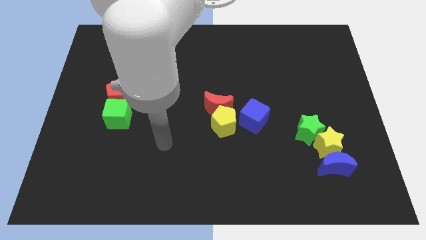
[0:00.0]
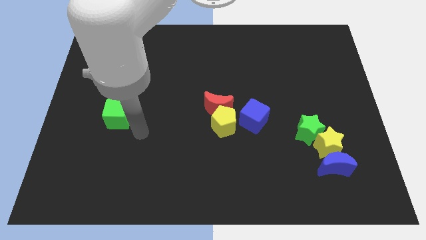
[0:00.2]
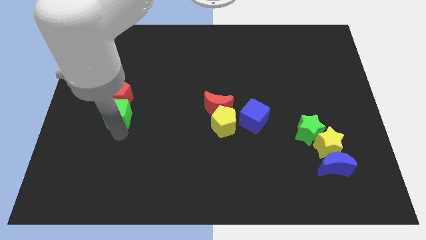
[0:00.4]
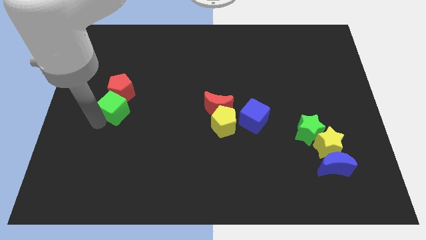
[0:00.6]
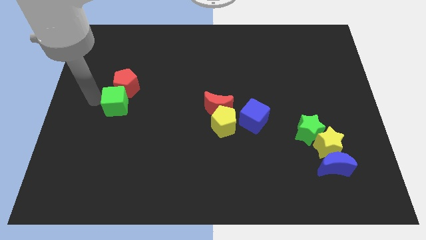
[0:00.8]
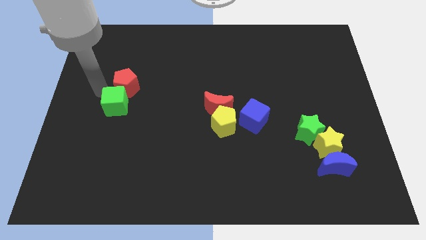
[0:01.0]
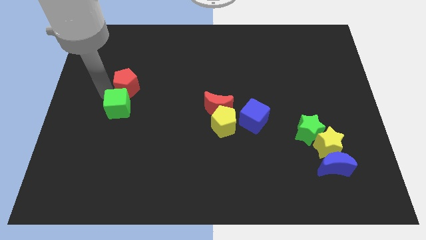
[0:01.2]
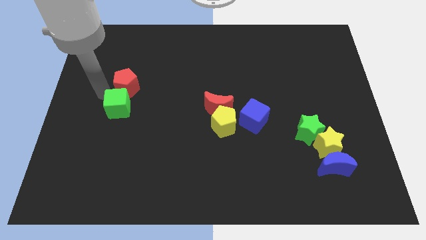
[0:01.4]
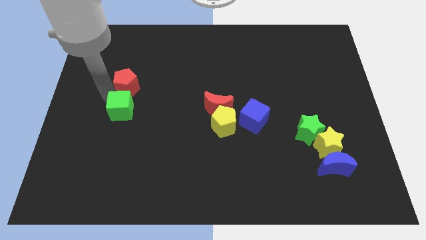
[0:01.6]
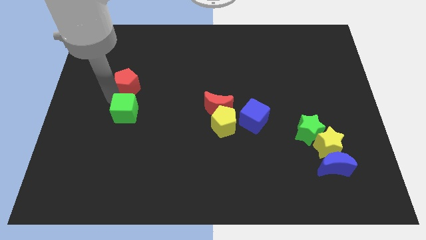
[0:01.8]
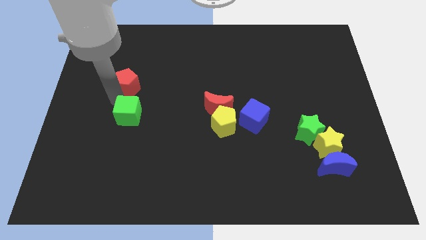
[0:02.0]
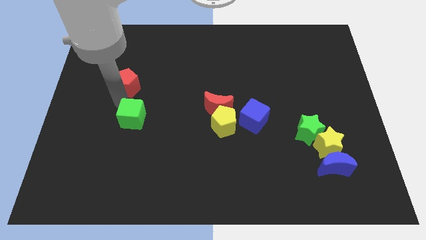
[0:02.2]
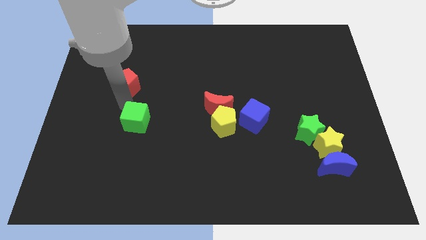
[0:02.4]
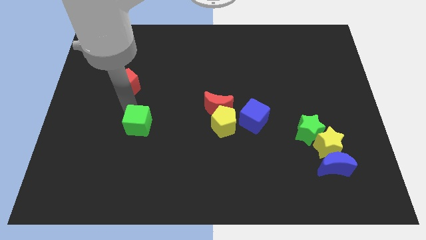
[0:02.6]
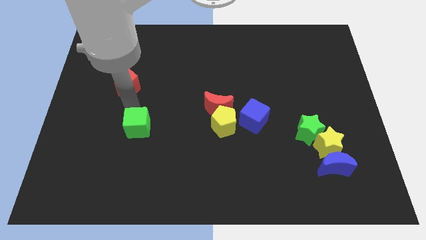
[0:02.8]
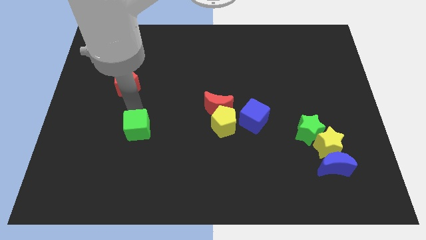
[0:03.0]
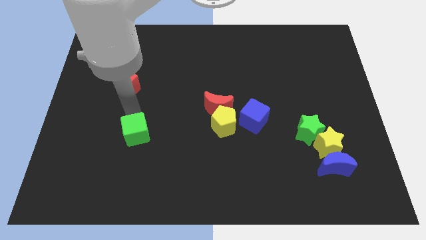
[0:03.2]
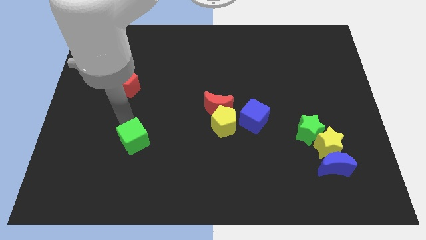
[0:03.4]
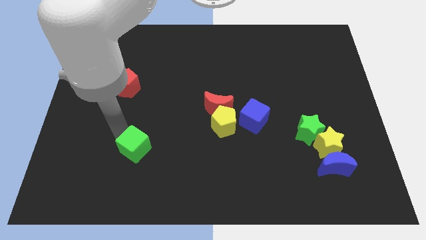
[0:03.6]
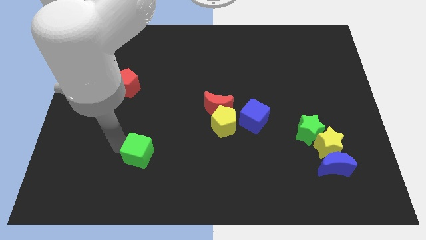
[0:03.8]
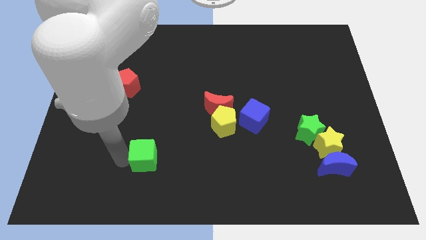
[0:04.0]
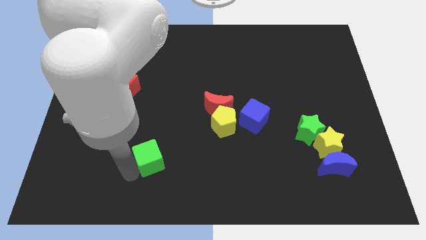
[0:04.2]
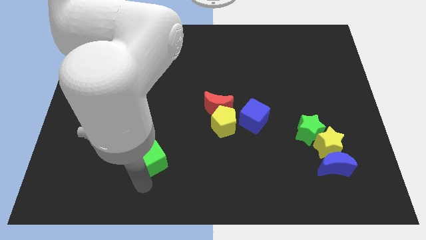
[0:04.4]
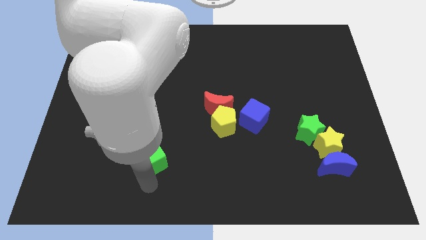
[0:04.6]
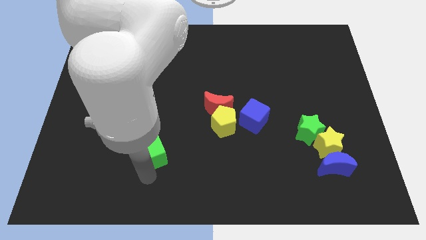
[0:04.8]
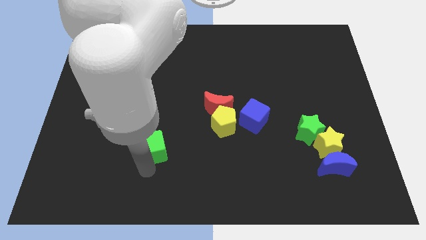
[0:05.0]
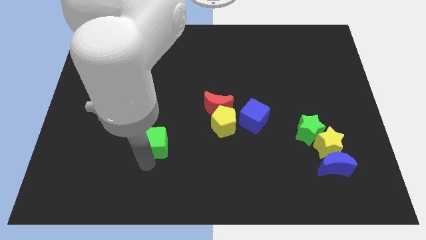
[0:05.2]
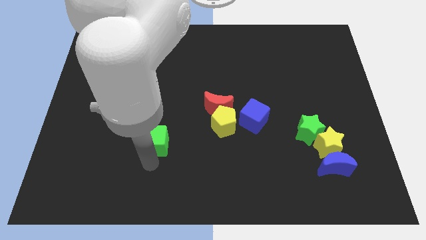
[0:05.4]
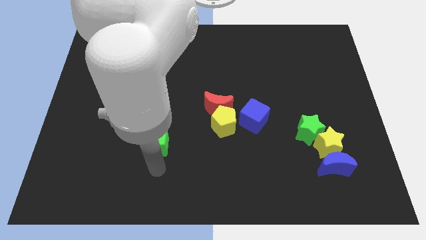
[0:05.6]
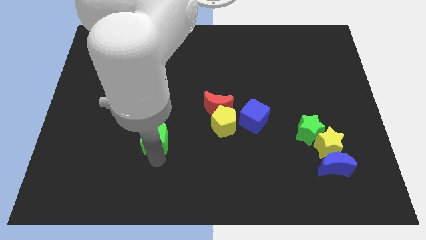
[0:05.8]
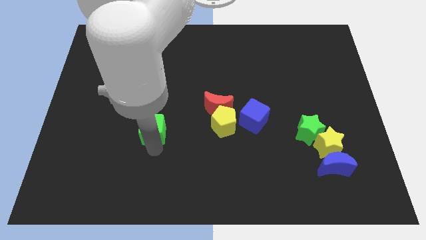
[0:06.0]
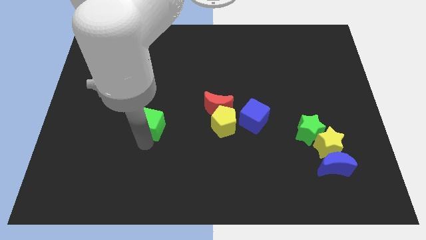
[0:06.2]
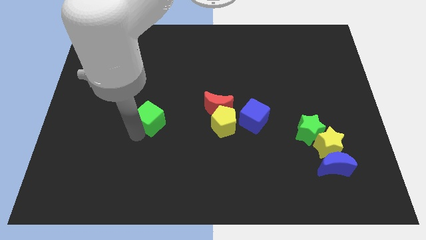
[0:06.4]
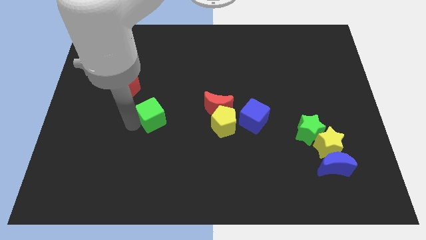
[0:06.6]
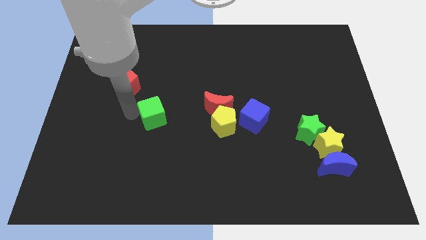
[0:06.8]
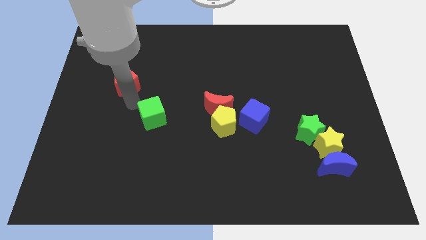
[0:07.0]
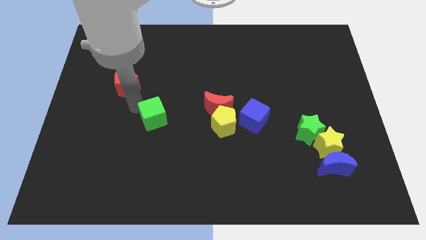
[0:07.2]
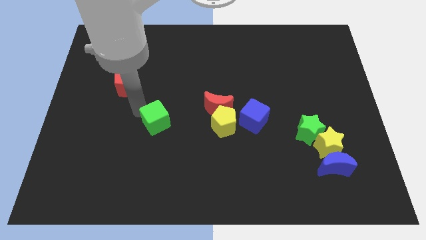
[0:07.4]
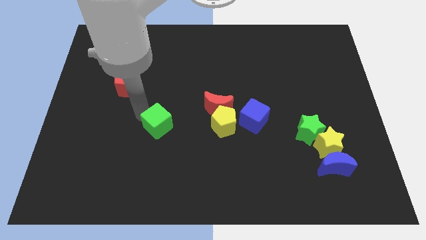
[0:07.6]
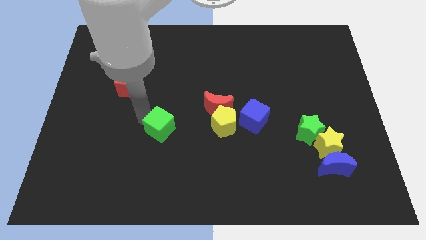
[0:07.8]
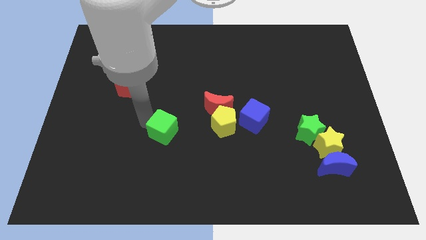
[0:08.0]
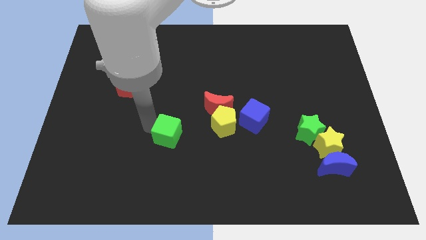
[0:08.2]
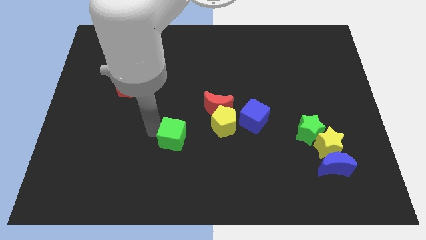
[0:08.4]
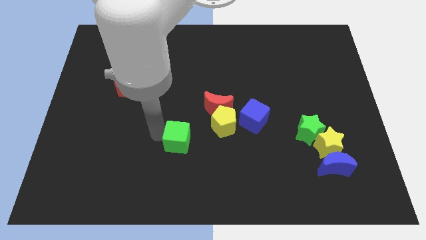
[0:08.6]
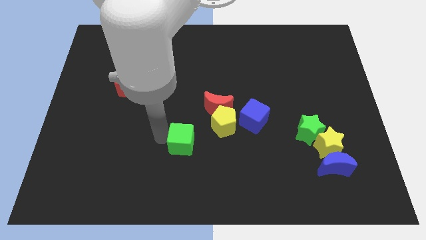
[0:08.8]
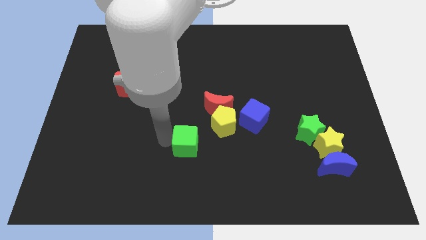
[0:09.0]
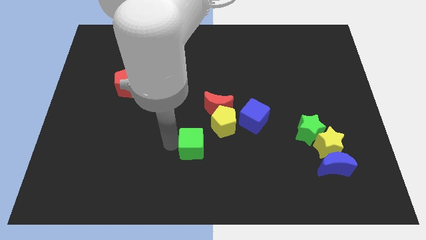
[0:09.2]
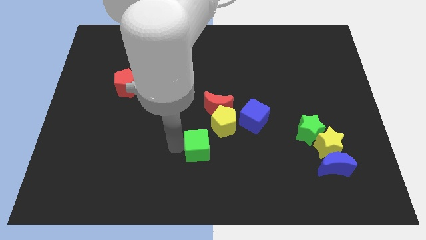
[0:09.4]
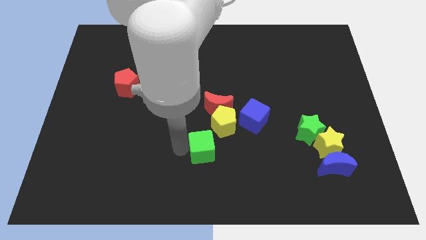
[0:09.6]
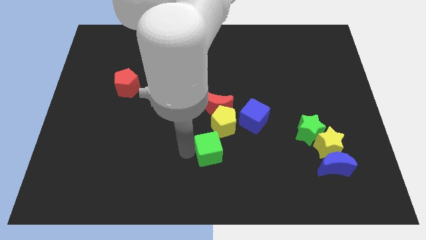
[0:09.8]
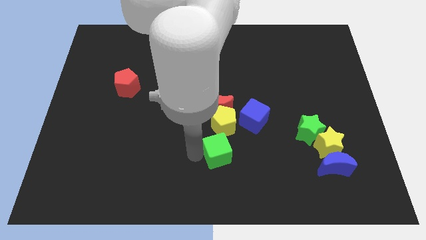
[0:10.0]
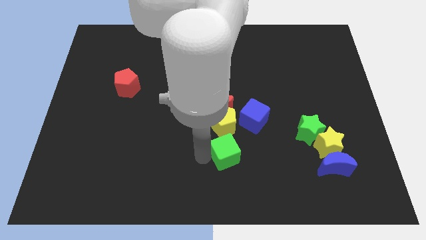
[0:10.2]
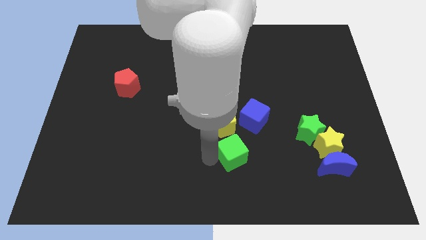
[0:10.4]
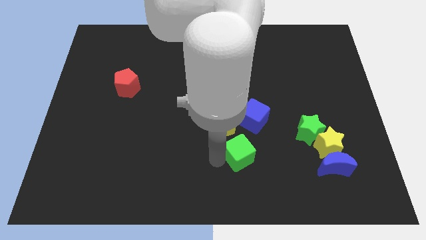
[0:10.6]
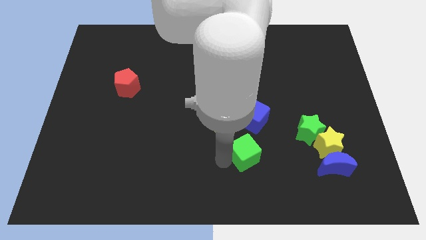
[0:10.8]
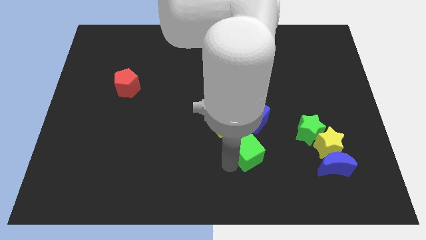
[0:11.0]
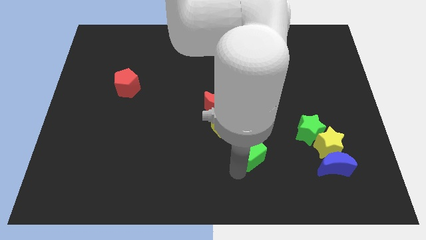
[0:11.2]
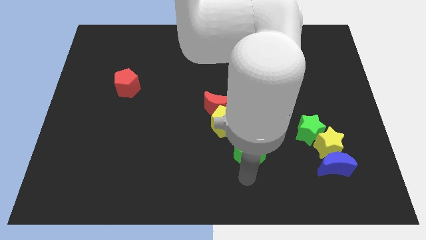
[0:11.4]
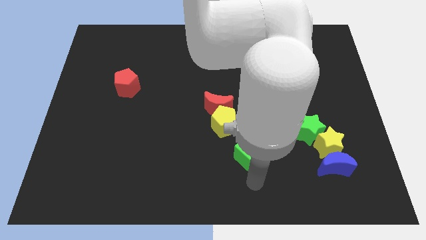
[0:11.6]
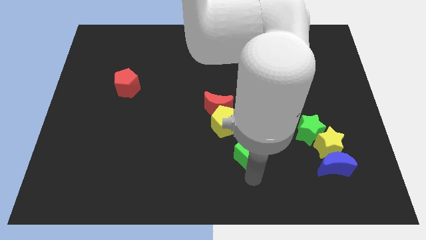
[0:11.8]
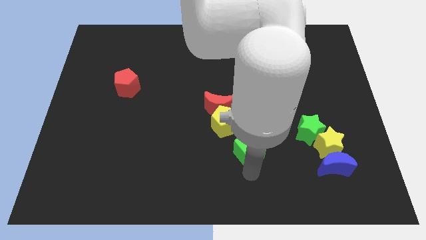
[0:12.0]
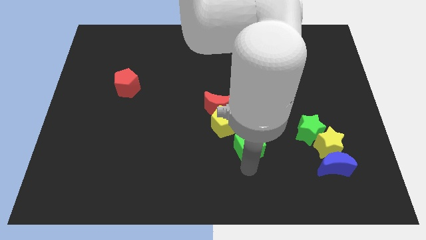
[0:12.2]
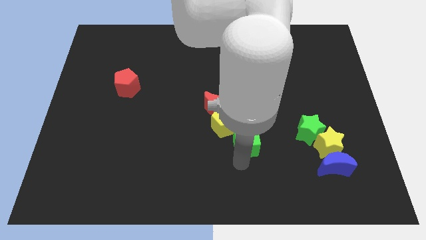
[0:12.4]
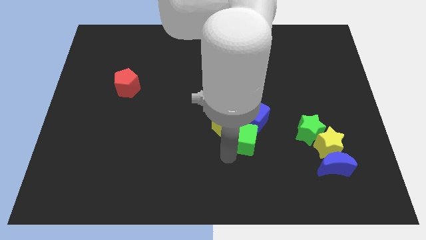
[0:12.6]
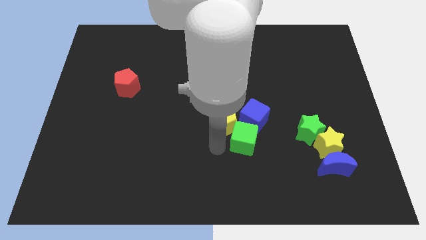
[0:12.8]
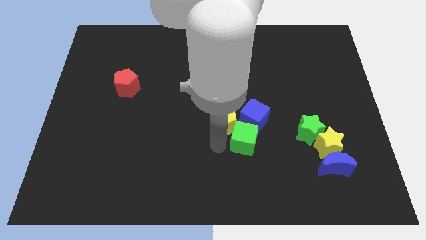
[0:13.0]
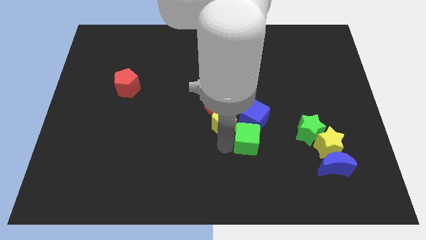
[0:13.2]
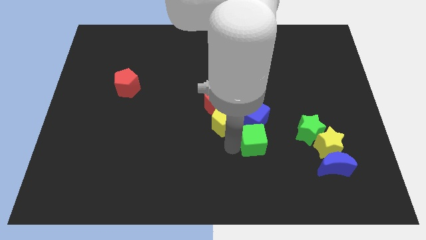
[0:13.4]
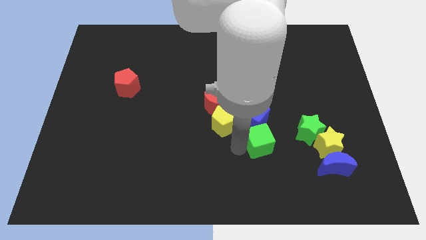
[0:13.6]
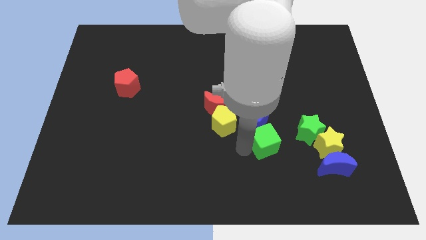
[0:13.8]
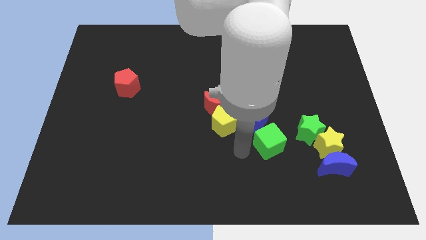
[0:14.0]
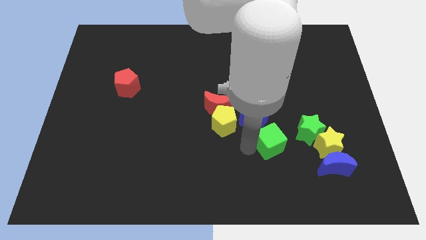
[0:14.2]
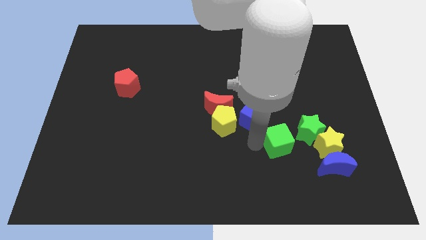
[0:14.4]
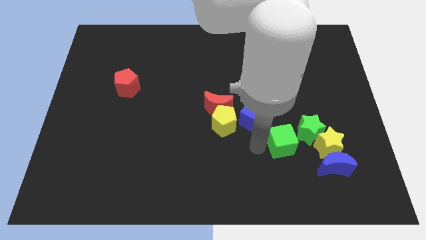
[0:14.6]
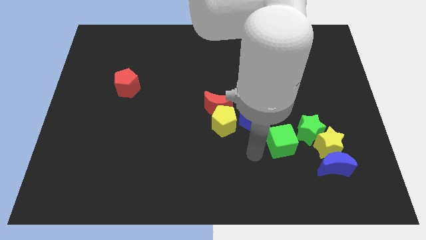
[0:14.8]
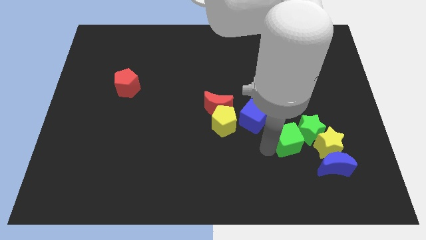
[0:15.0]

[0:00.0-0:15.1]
slide the green cube close to the green star
